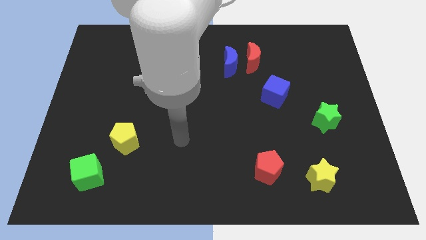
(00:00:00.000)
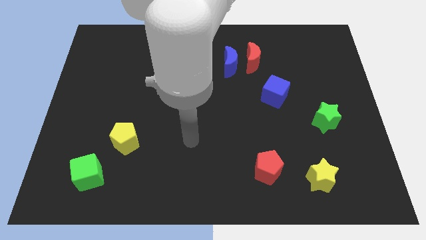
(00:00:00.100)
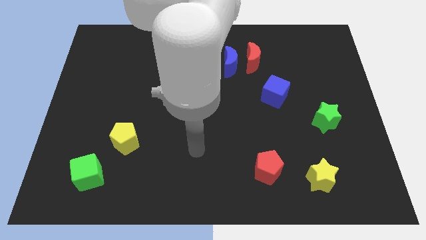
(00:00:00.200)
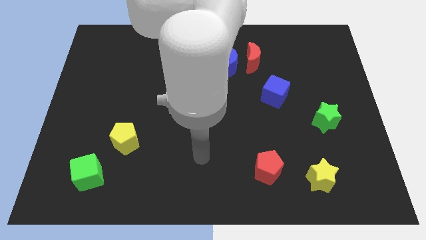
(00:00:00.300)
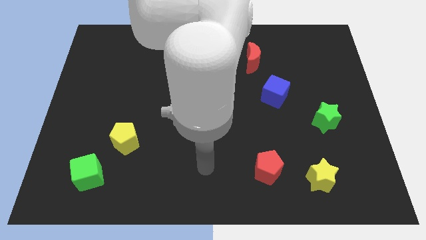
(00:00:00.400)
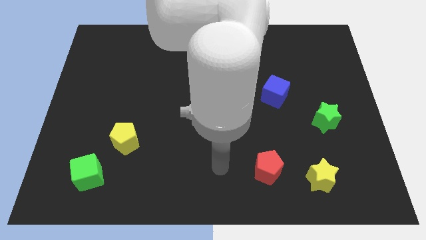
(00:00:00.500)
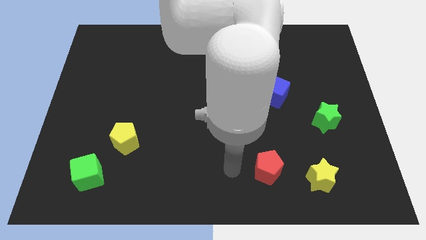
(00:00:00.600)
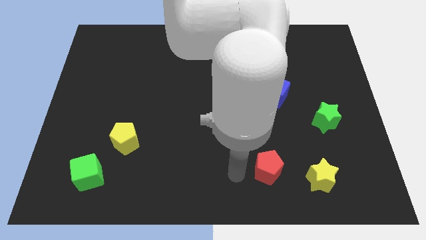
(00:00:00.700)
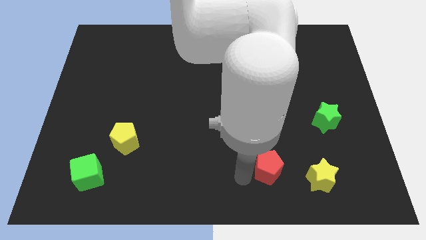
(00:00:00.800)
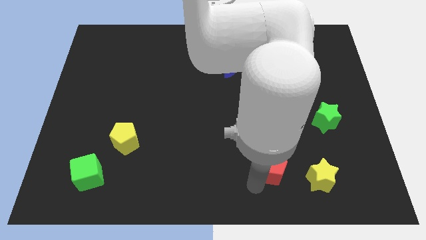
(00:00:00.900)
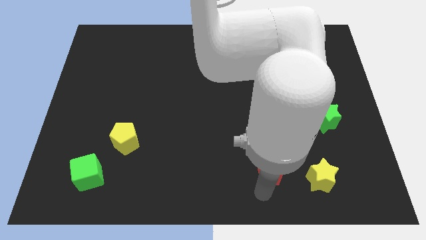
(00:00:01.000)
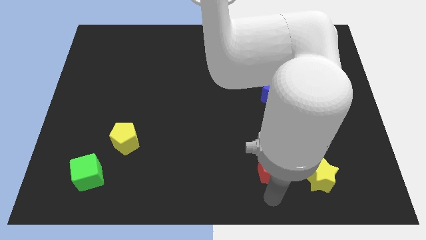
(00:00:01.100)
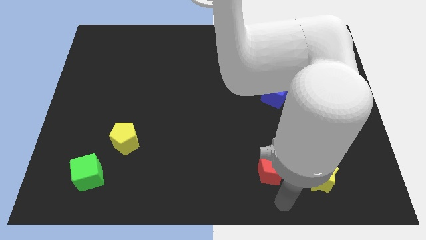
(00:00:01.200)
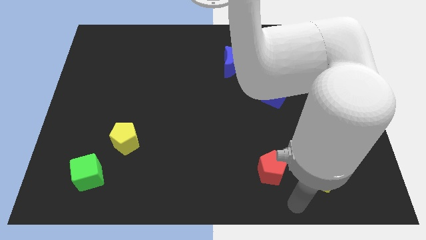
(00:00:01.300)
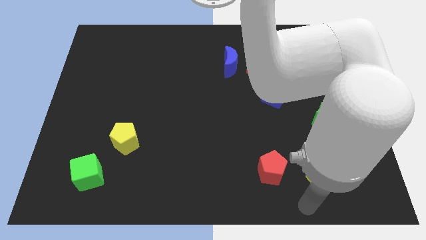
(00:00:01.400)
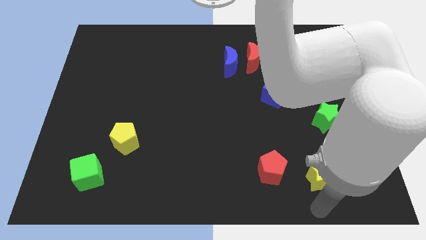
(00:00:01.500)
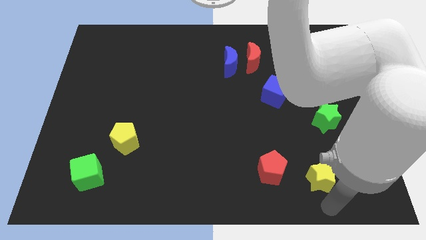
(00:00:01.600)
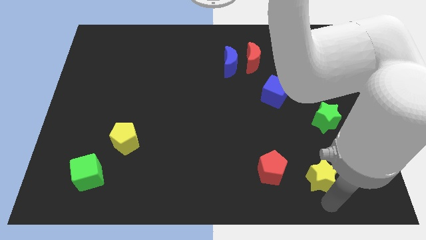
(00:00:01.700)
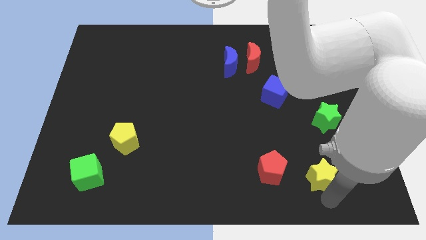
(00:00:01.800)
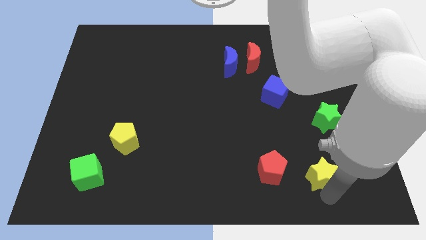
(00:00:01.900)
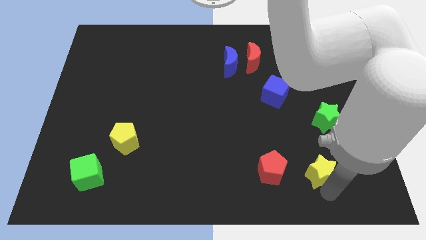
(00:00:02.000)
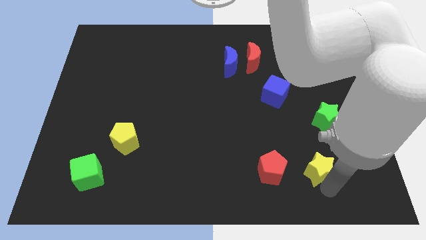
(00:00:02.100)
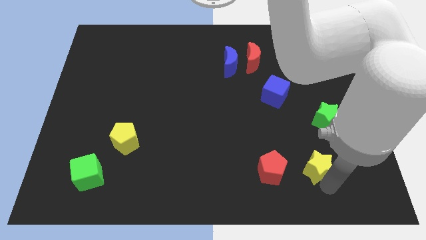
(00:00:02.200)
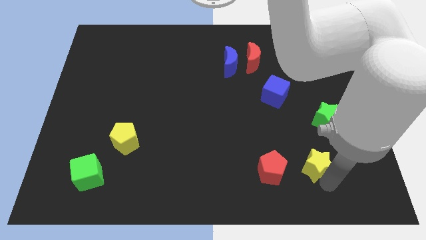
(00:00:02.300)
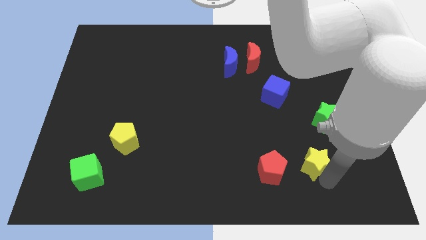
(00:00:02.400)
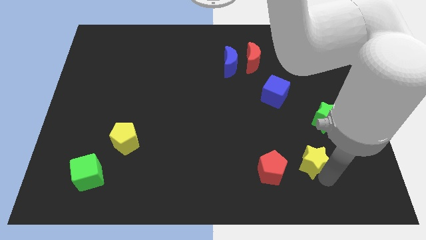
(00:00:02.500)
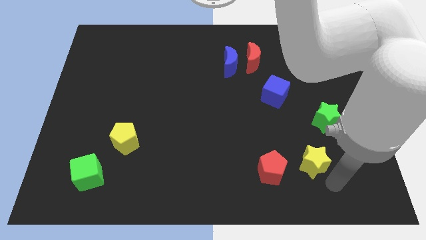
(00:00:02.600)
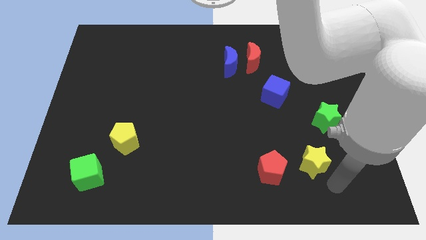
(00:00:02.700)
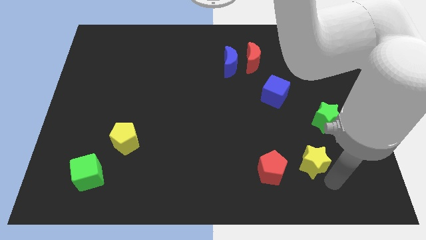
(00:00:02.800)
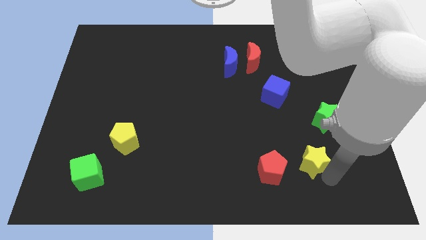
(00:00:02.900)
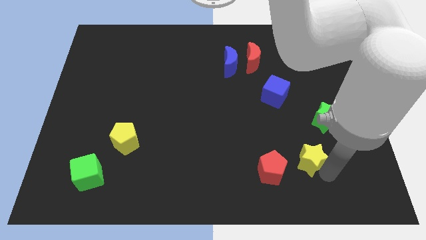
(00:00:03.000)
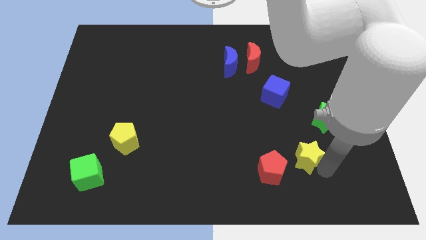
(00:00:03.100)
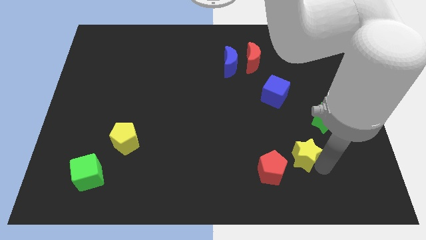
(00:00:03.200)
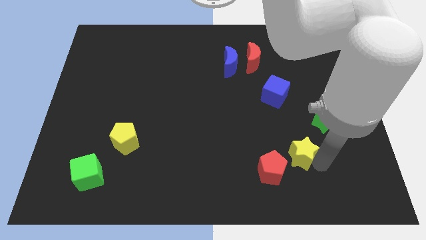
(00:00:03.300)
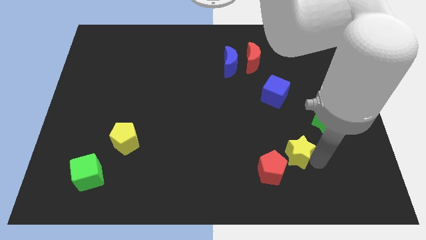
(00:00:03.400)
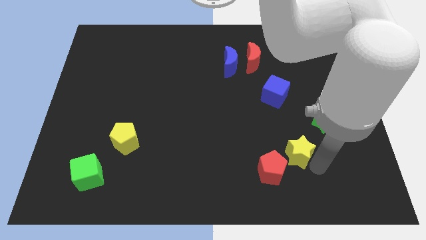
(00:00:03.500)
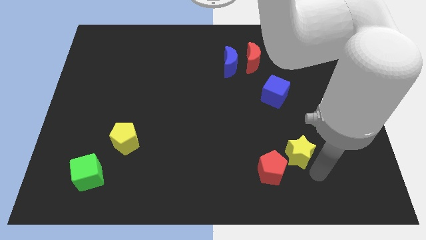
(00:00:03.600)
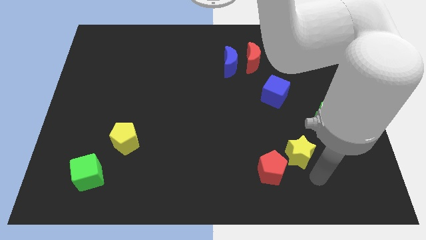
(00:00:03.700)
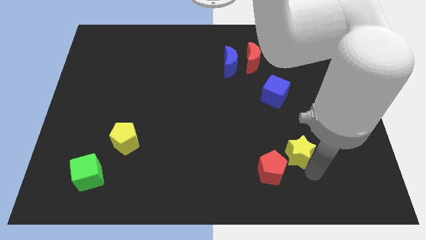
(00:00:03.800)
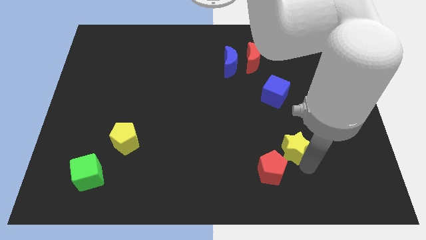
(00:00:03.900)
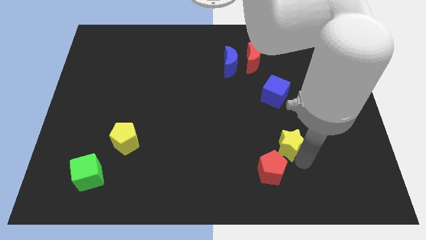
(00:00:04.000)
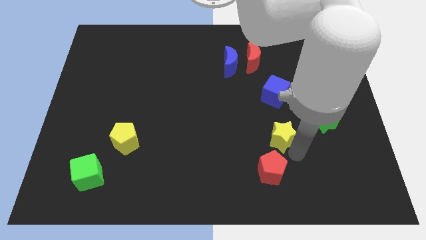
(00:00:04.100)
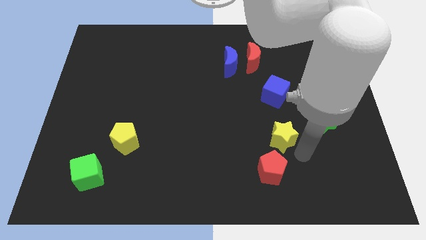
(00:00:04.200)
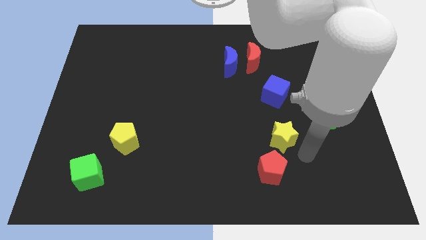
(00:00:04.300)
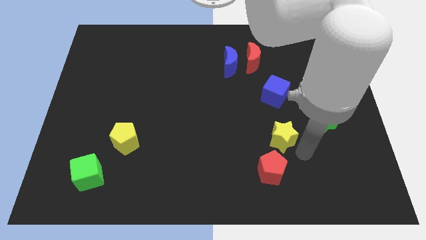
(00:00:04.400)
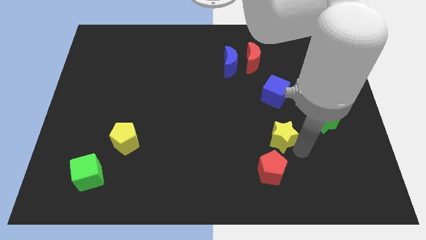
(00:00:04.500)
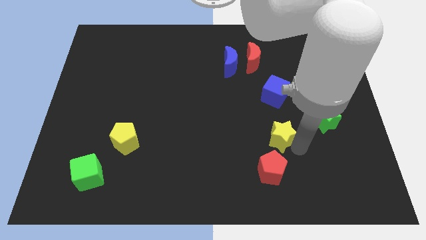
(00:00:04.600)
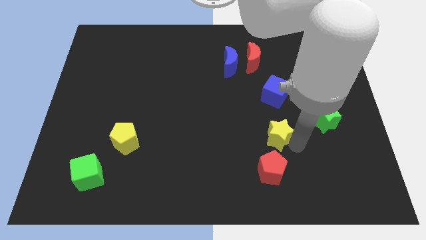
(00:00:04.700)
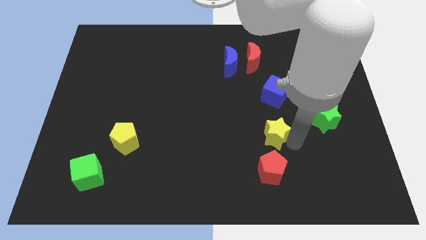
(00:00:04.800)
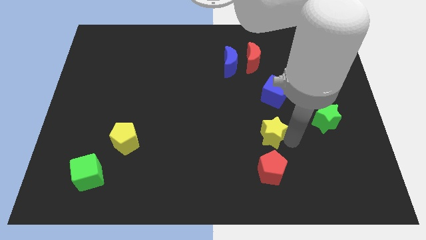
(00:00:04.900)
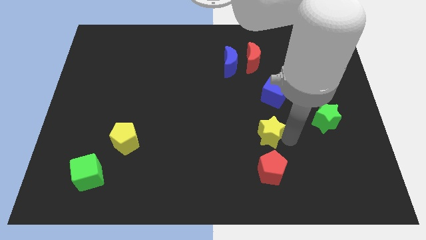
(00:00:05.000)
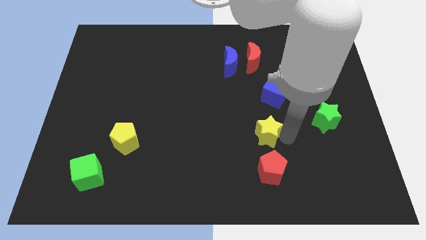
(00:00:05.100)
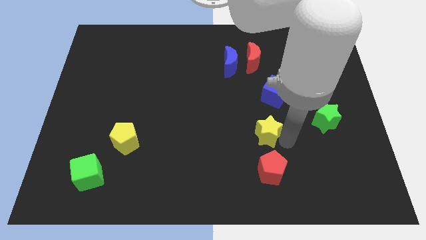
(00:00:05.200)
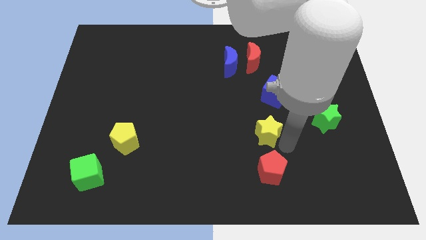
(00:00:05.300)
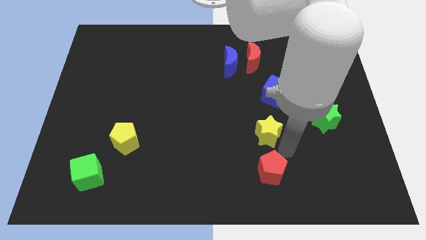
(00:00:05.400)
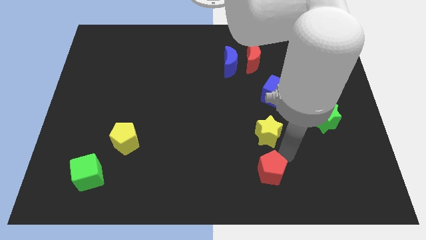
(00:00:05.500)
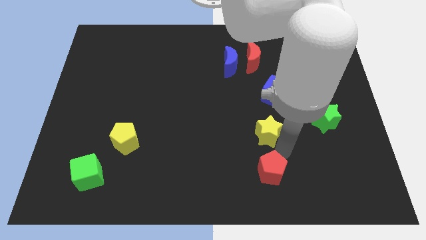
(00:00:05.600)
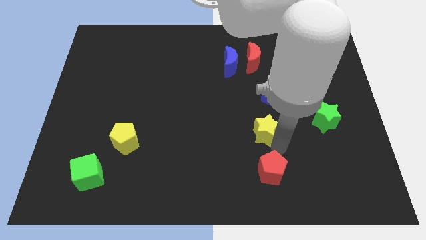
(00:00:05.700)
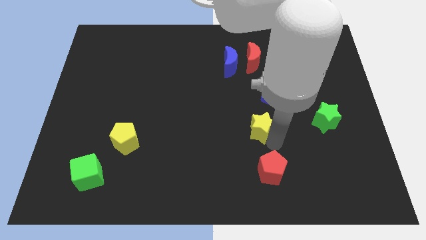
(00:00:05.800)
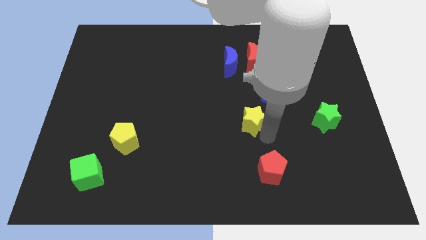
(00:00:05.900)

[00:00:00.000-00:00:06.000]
move the yellow star to the center

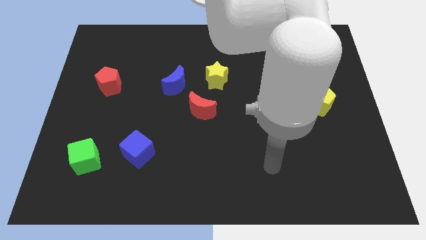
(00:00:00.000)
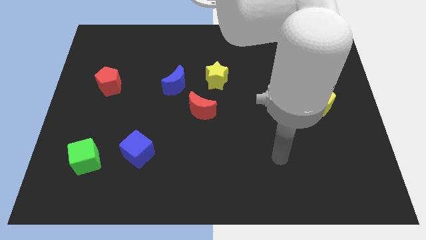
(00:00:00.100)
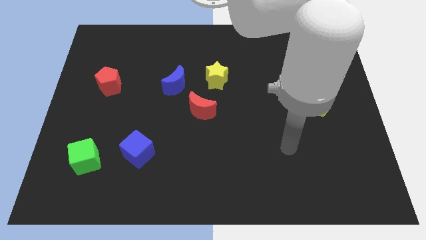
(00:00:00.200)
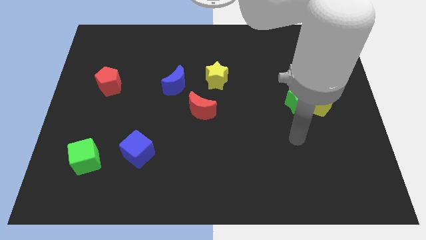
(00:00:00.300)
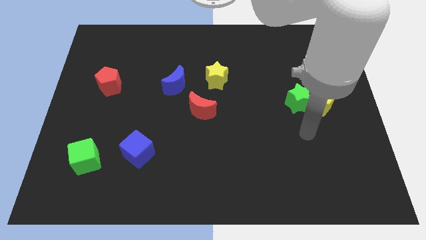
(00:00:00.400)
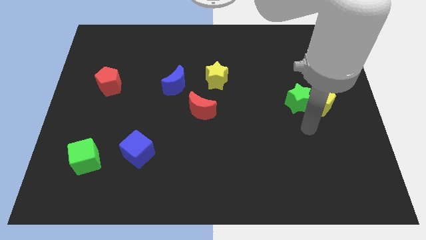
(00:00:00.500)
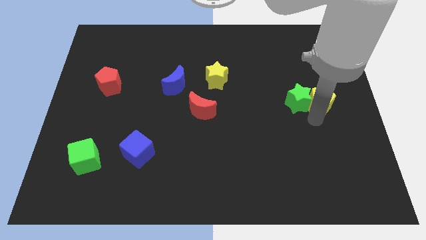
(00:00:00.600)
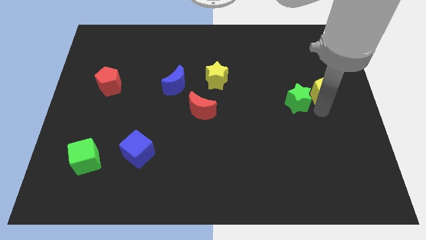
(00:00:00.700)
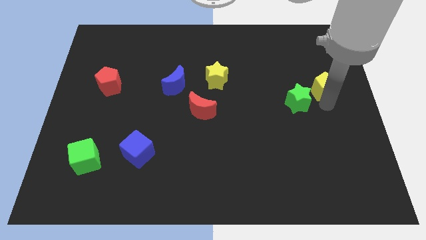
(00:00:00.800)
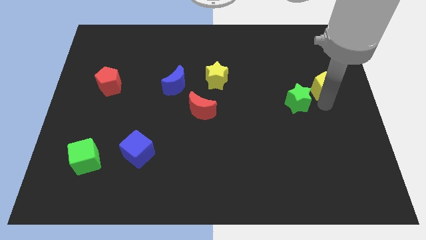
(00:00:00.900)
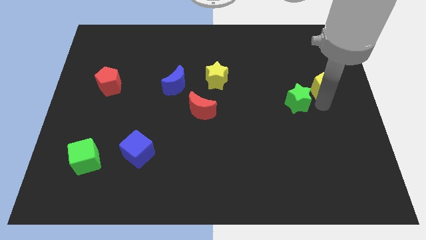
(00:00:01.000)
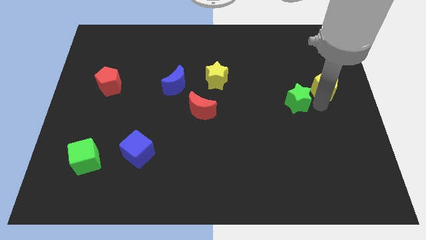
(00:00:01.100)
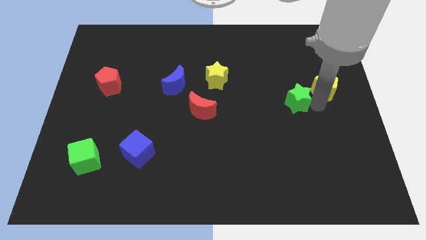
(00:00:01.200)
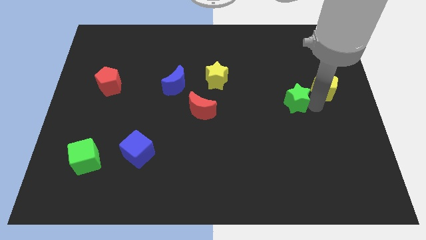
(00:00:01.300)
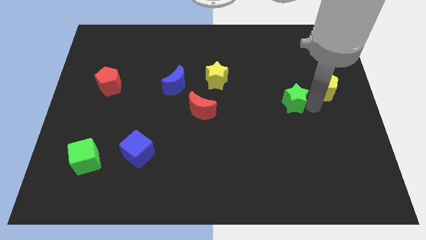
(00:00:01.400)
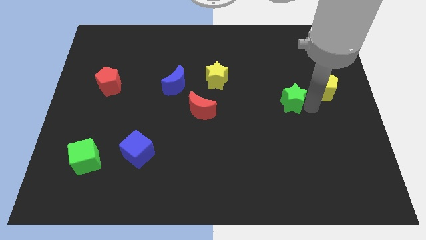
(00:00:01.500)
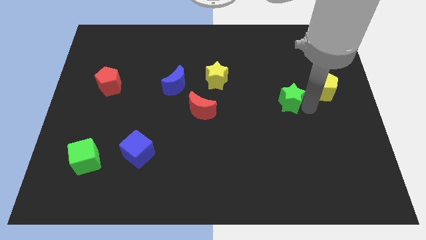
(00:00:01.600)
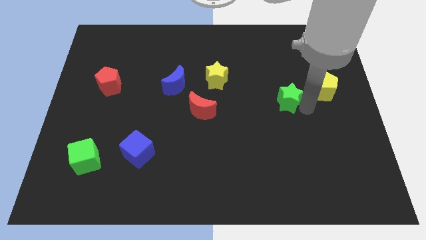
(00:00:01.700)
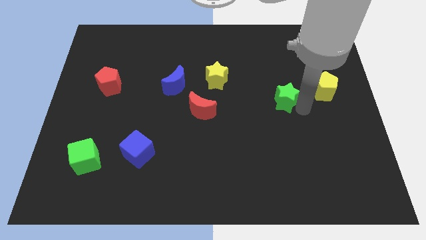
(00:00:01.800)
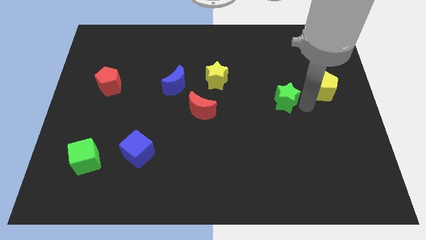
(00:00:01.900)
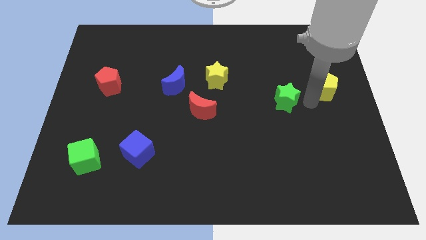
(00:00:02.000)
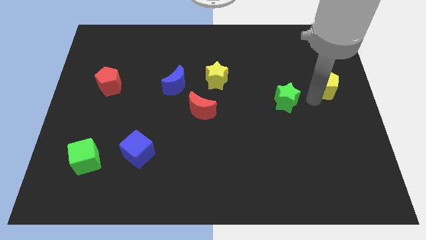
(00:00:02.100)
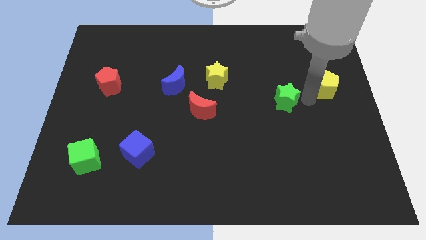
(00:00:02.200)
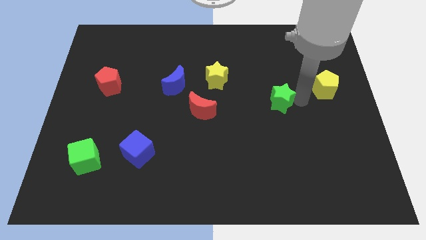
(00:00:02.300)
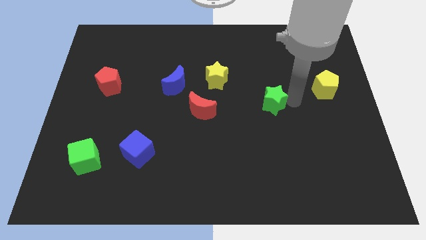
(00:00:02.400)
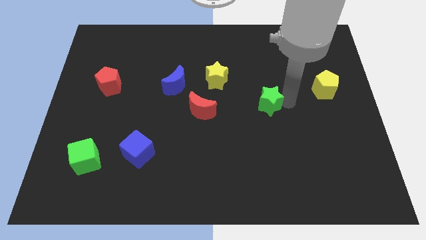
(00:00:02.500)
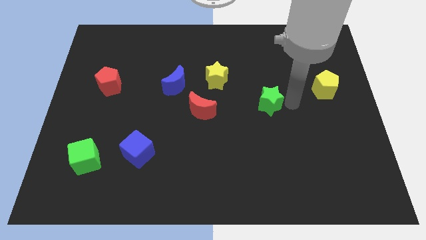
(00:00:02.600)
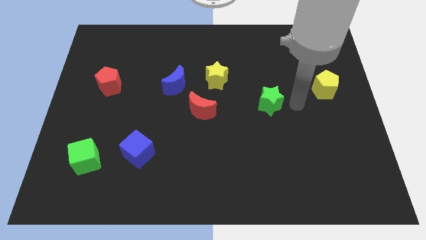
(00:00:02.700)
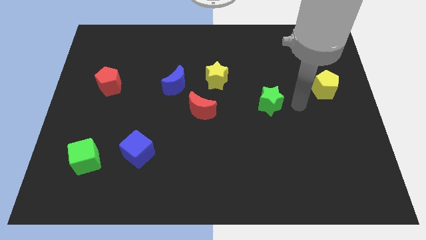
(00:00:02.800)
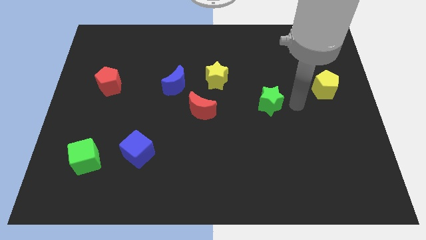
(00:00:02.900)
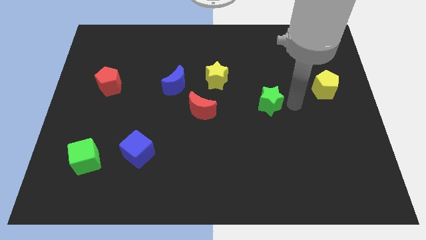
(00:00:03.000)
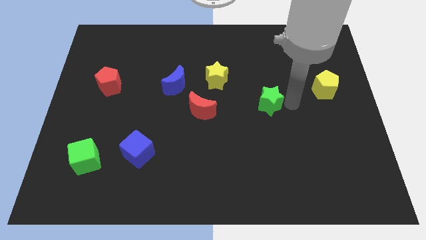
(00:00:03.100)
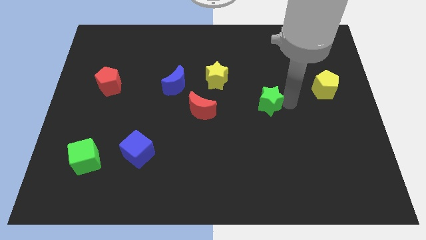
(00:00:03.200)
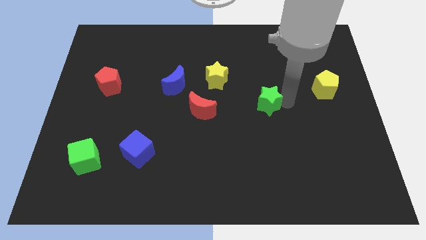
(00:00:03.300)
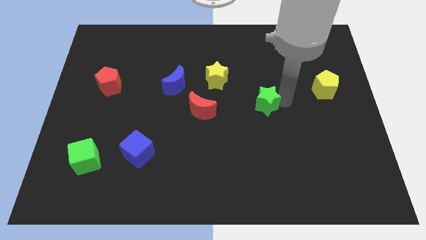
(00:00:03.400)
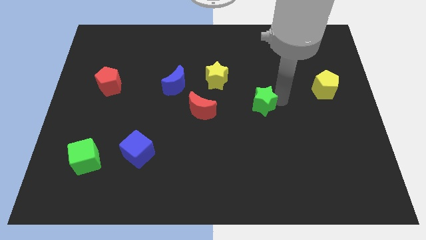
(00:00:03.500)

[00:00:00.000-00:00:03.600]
slide the green star to the middle of the board
